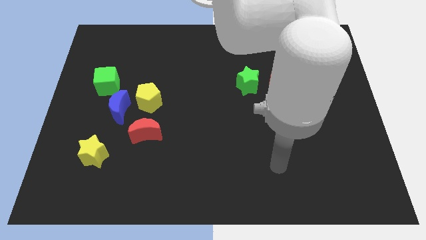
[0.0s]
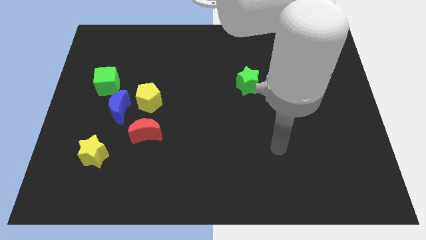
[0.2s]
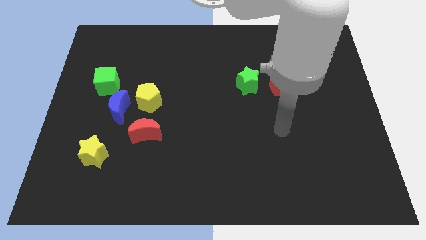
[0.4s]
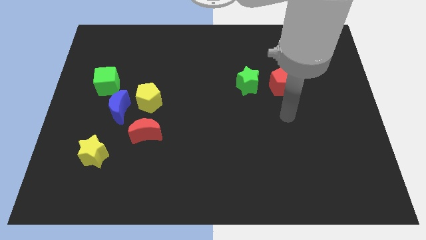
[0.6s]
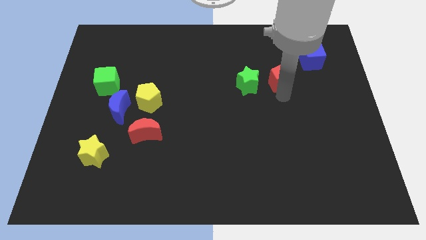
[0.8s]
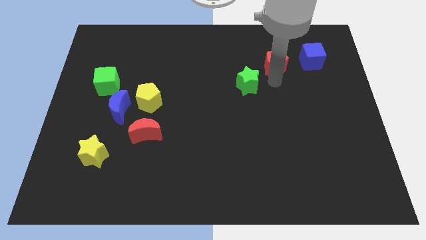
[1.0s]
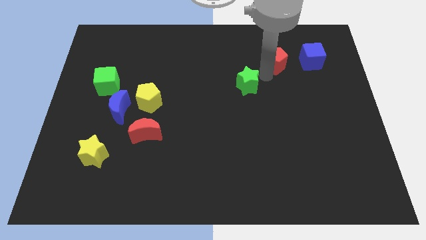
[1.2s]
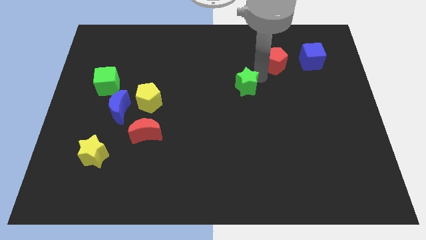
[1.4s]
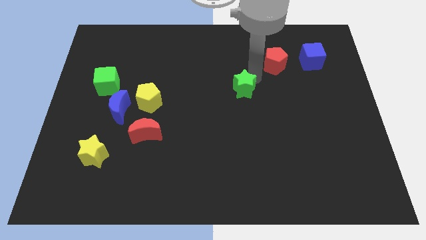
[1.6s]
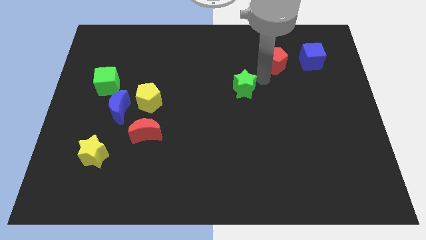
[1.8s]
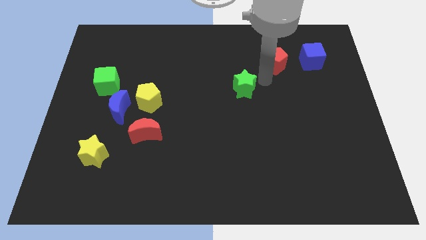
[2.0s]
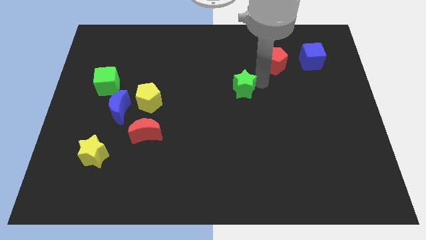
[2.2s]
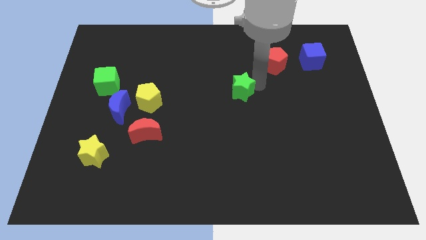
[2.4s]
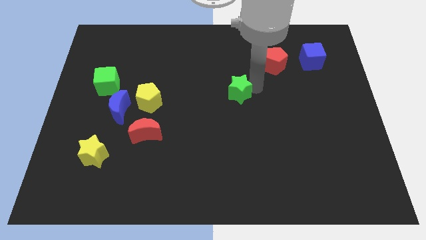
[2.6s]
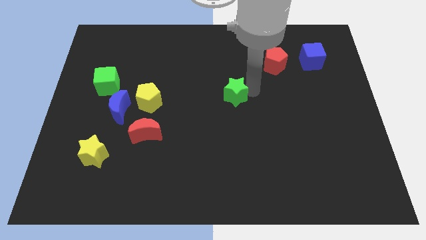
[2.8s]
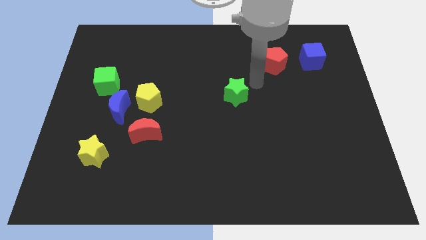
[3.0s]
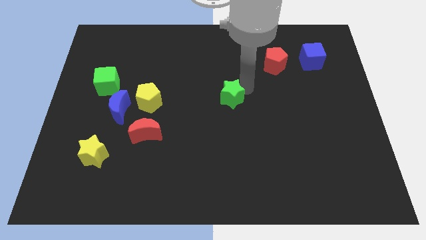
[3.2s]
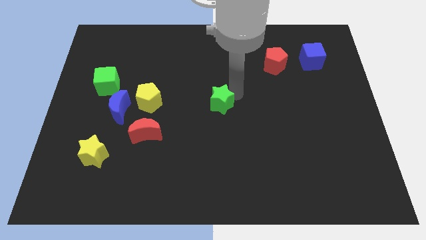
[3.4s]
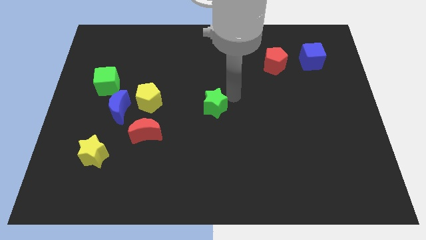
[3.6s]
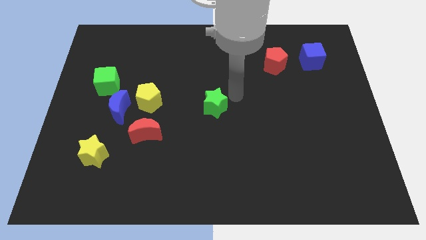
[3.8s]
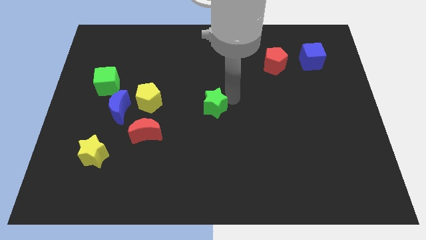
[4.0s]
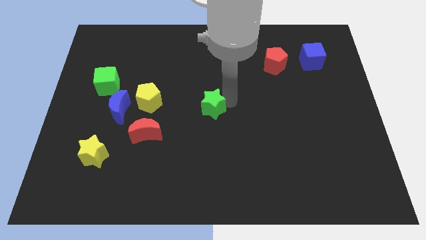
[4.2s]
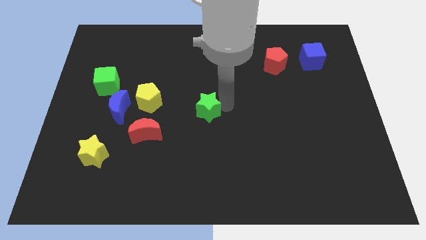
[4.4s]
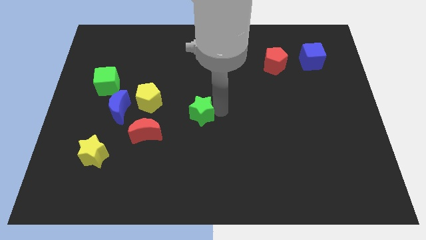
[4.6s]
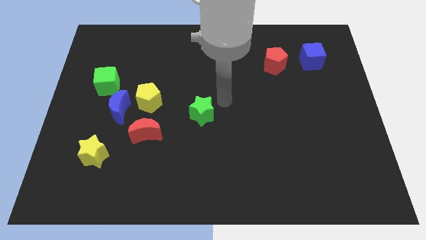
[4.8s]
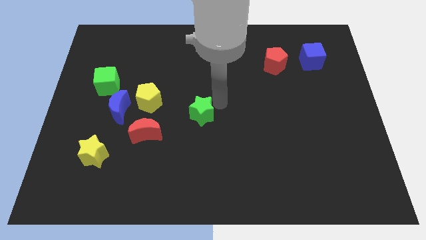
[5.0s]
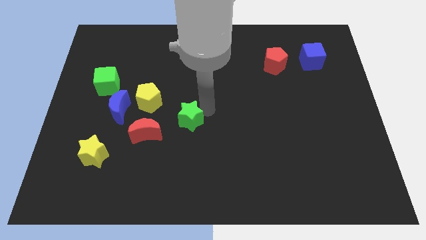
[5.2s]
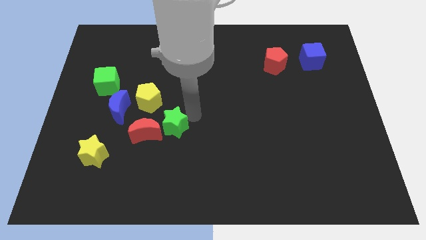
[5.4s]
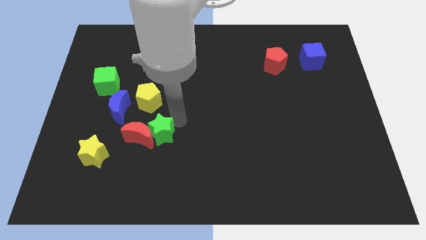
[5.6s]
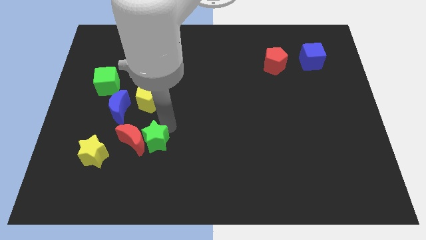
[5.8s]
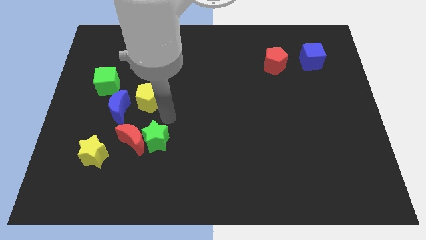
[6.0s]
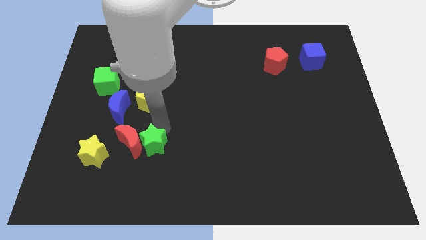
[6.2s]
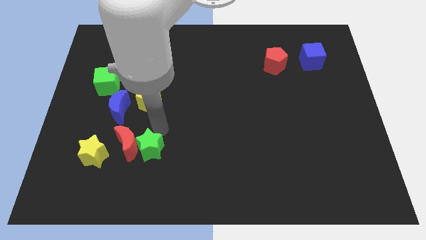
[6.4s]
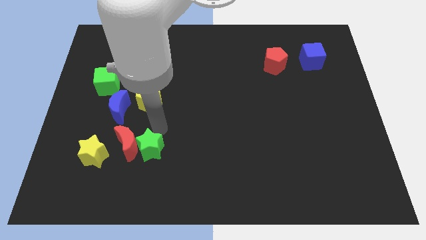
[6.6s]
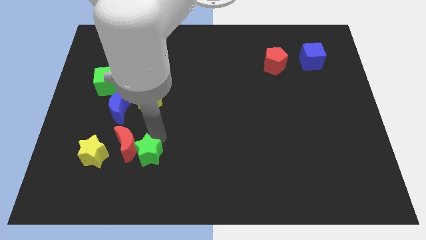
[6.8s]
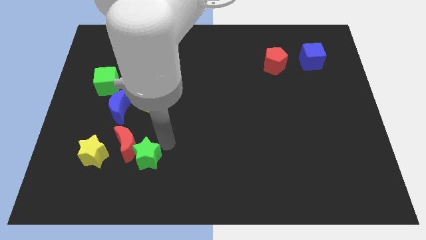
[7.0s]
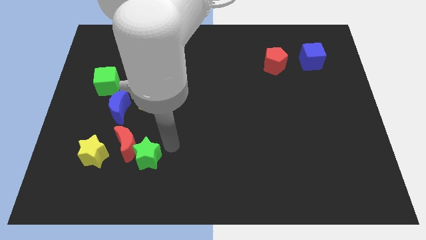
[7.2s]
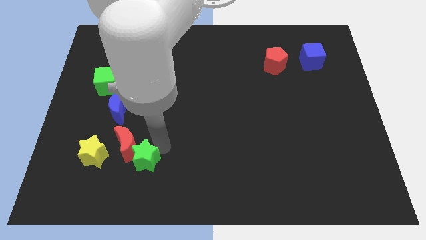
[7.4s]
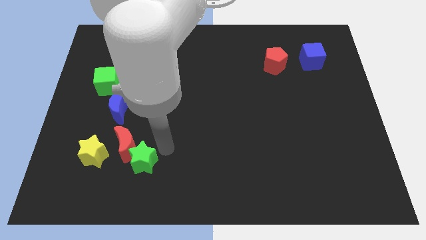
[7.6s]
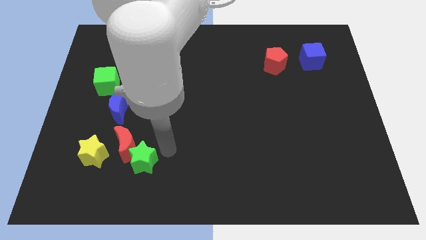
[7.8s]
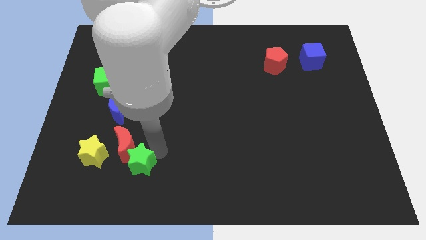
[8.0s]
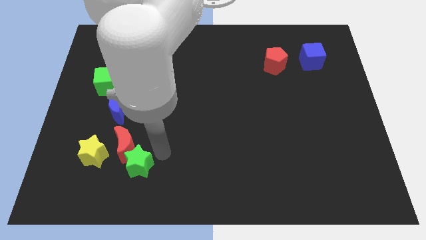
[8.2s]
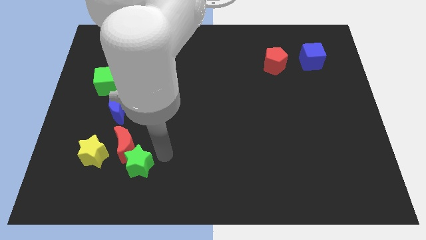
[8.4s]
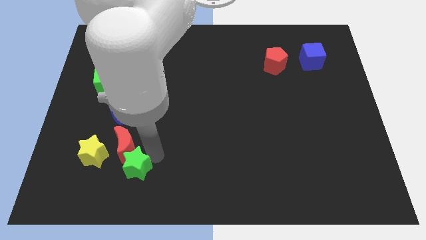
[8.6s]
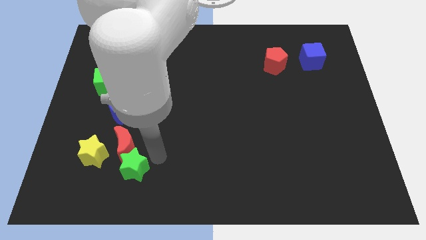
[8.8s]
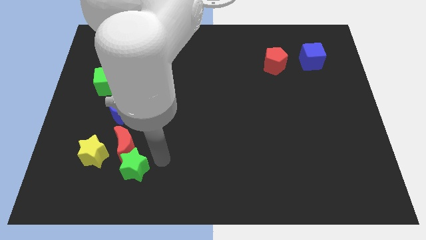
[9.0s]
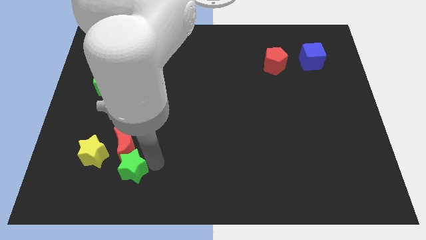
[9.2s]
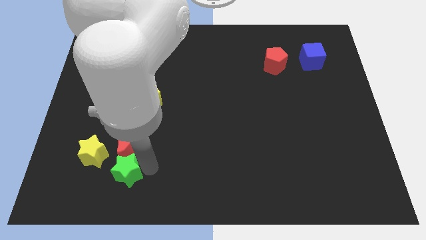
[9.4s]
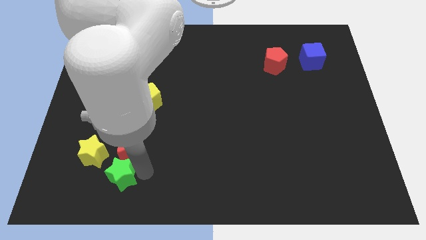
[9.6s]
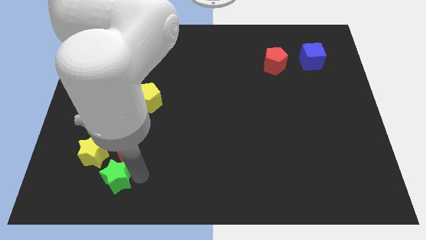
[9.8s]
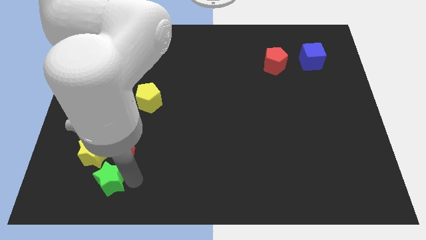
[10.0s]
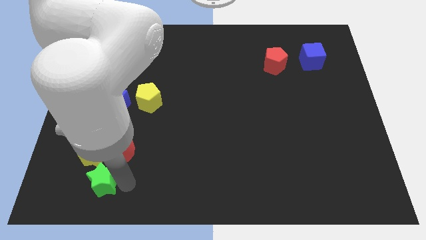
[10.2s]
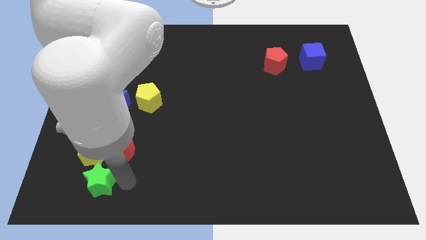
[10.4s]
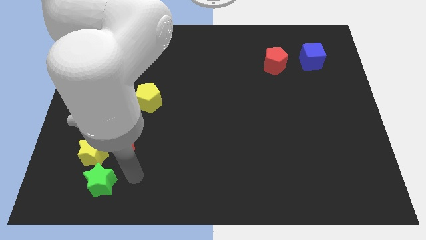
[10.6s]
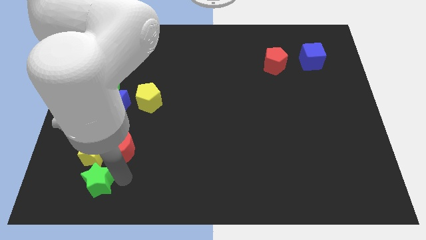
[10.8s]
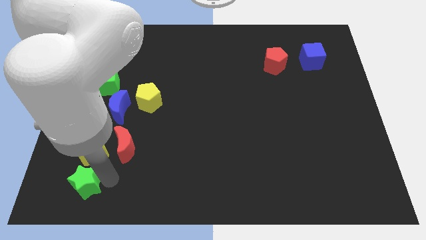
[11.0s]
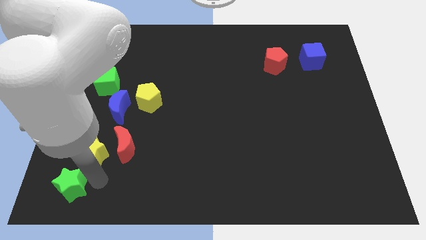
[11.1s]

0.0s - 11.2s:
put the green star to the bottom left corner

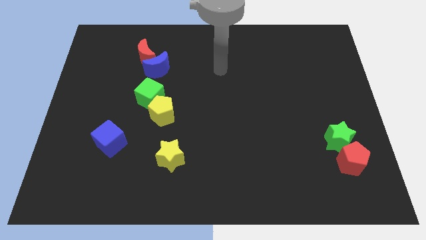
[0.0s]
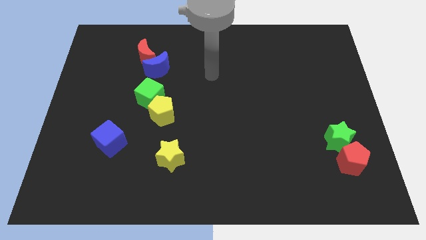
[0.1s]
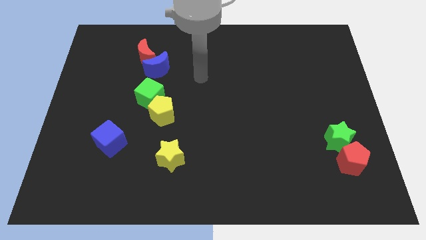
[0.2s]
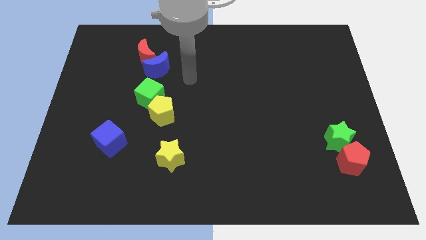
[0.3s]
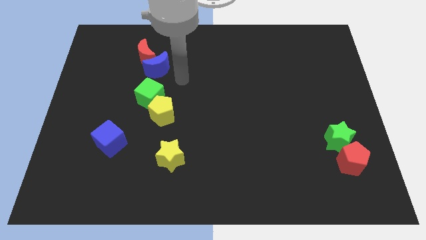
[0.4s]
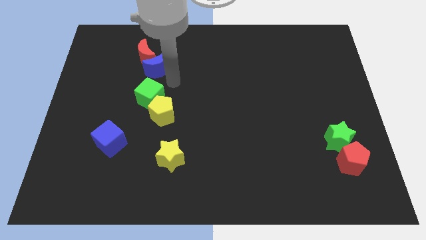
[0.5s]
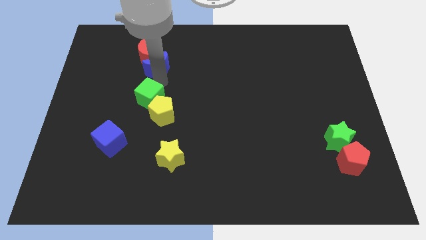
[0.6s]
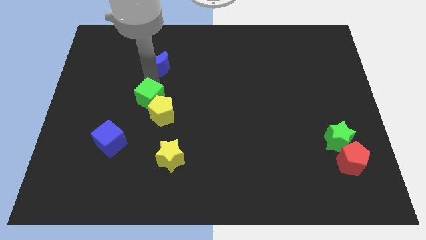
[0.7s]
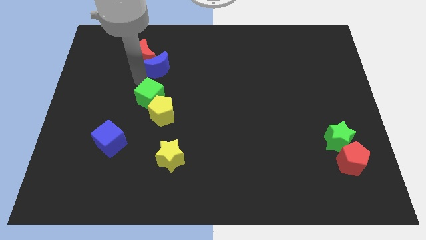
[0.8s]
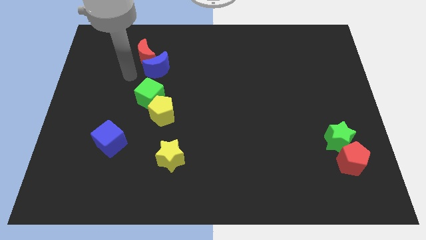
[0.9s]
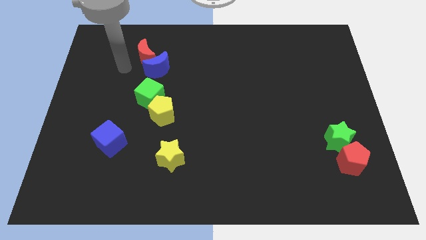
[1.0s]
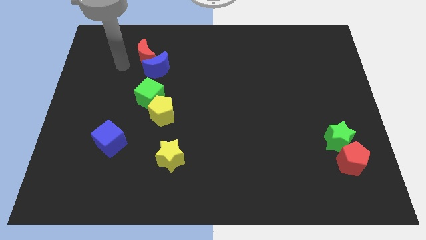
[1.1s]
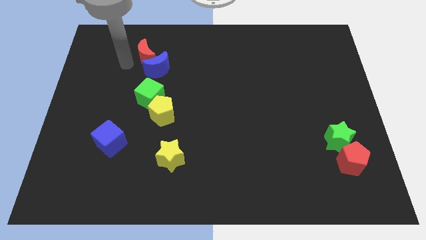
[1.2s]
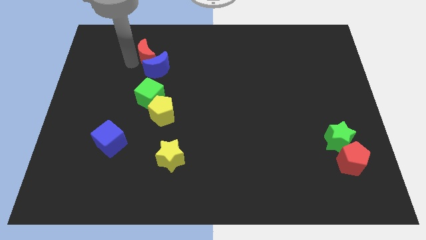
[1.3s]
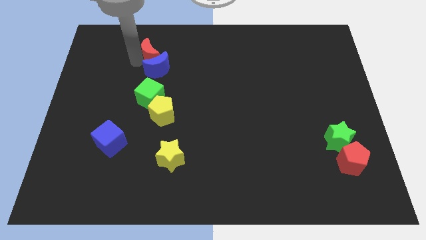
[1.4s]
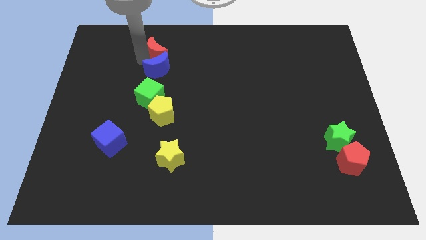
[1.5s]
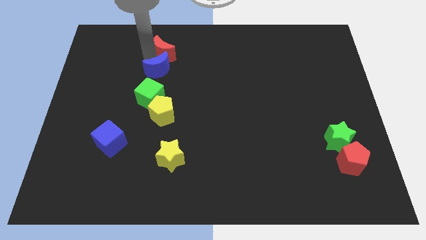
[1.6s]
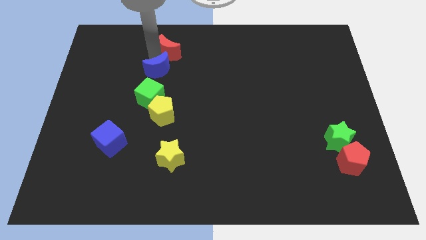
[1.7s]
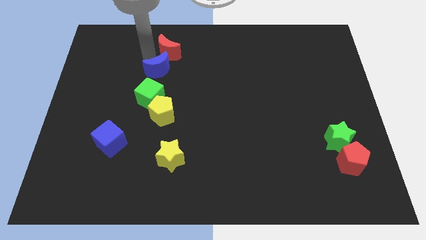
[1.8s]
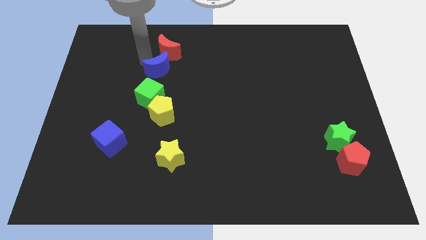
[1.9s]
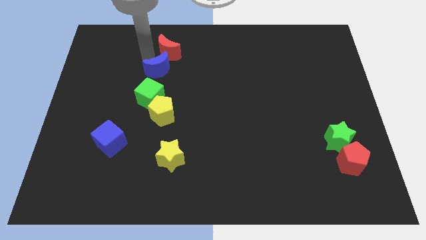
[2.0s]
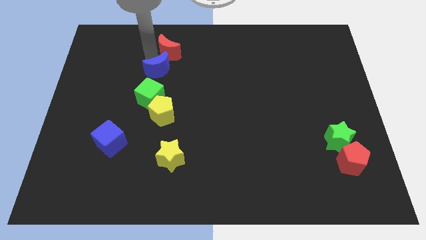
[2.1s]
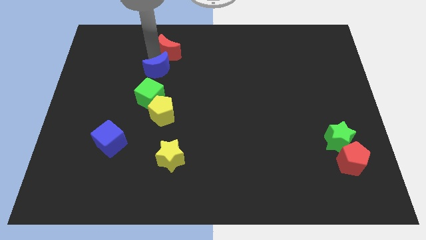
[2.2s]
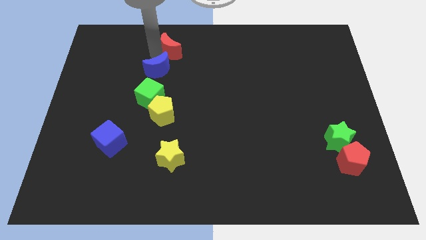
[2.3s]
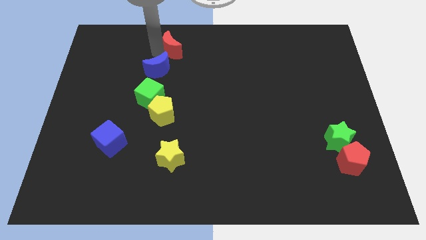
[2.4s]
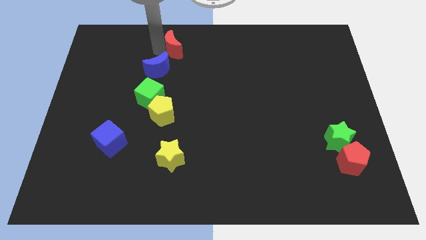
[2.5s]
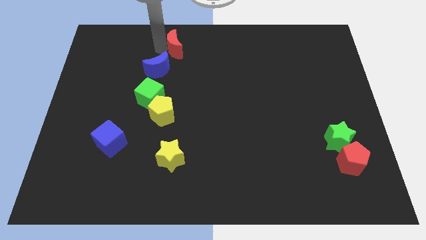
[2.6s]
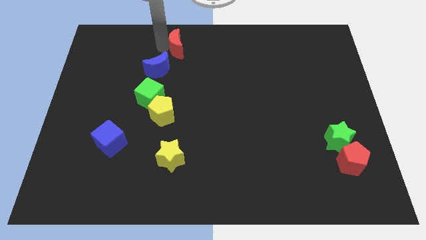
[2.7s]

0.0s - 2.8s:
put the red moon to the top
